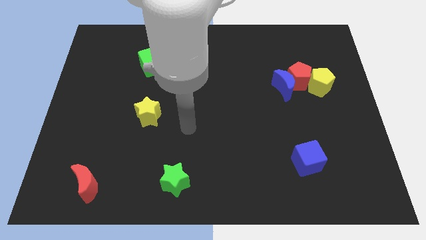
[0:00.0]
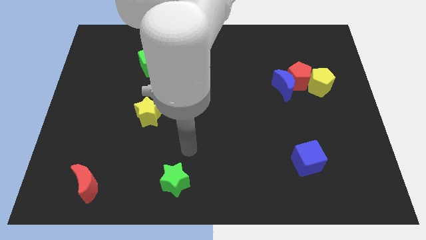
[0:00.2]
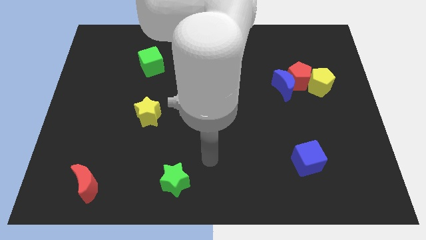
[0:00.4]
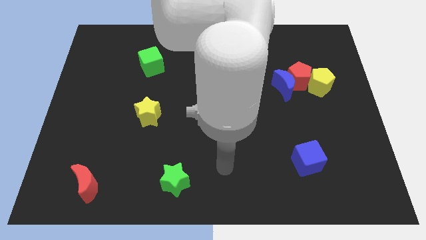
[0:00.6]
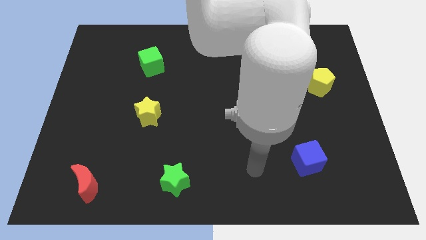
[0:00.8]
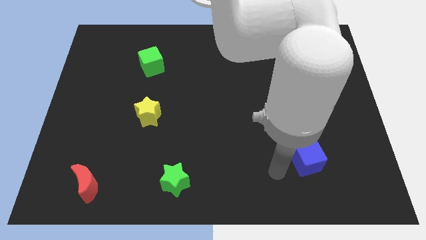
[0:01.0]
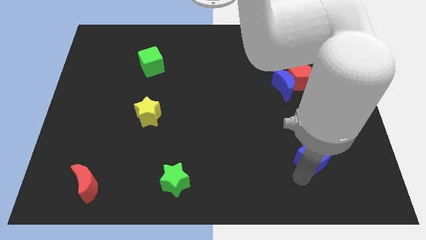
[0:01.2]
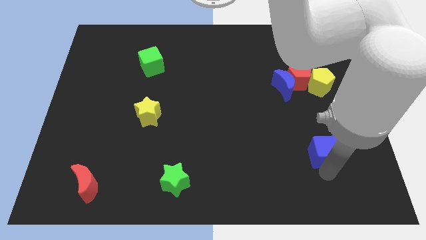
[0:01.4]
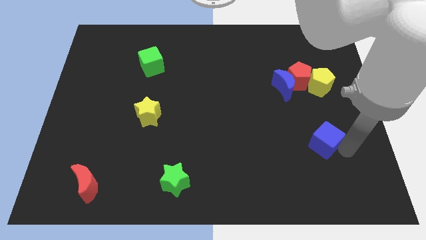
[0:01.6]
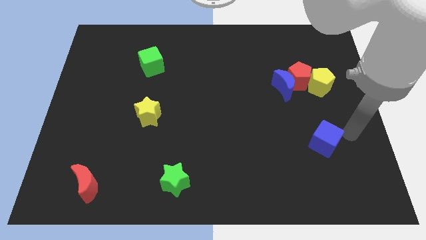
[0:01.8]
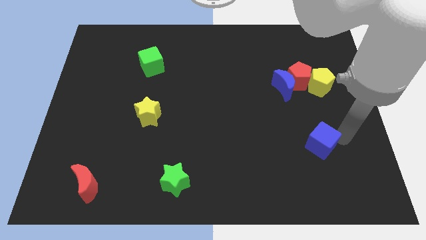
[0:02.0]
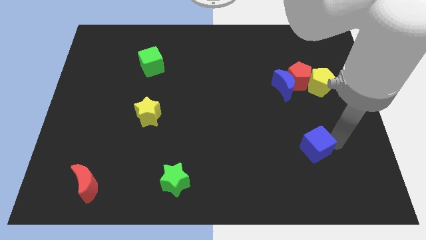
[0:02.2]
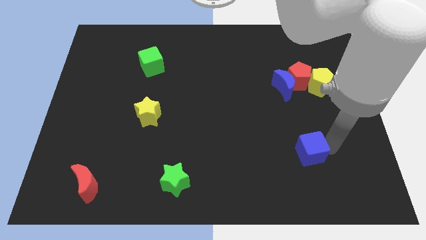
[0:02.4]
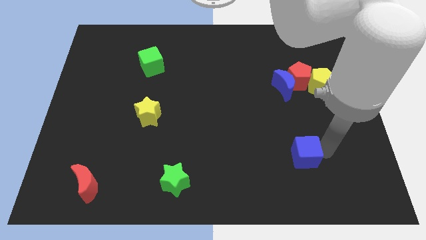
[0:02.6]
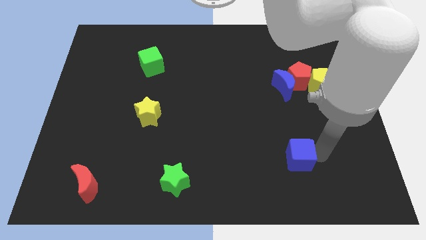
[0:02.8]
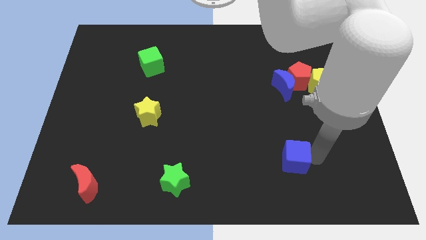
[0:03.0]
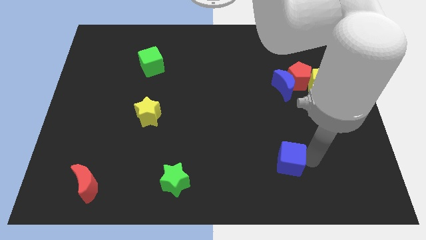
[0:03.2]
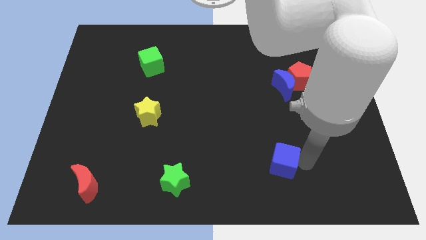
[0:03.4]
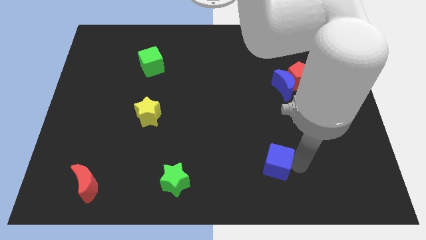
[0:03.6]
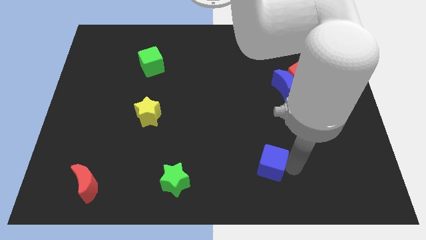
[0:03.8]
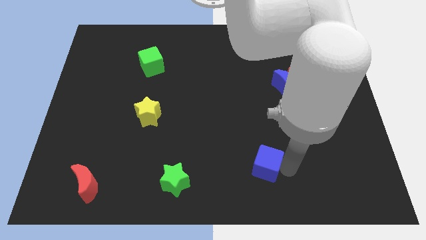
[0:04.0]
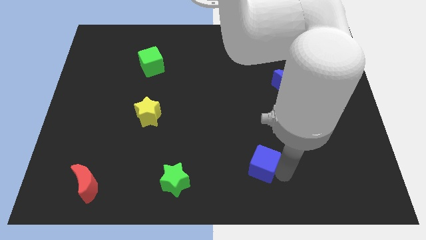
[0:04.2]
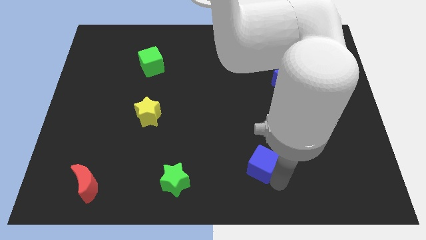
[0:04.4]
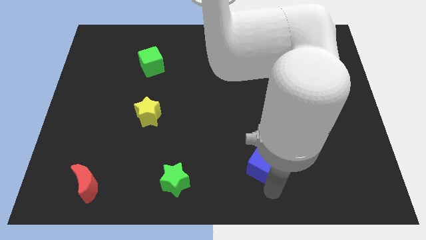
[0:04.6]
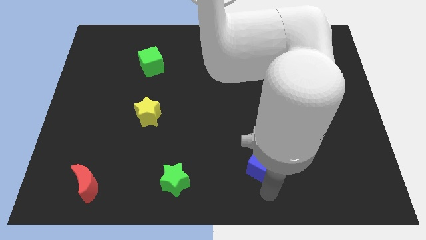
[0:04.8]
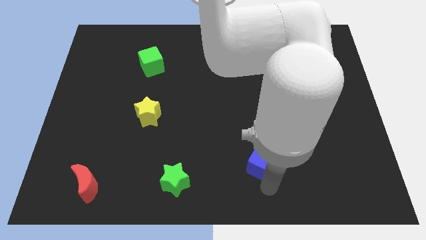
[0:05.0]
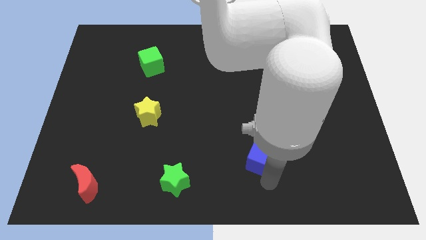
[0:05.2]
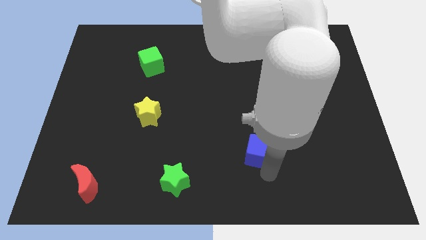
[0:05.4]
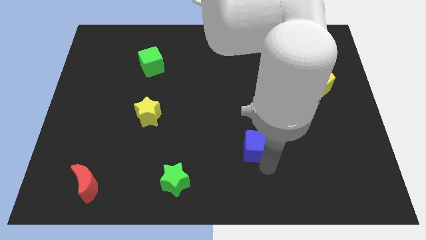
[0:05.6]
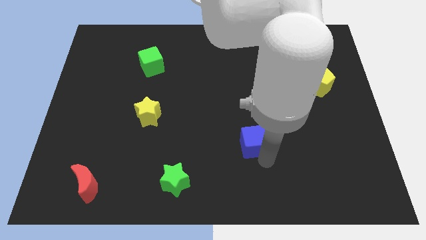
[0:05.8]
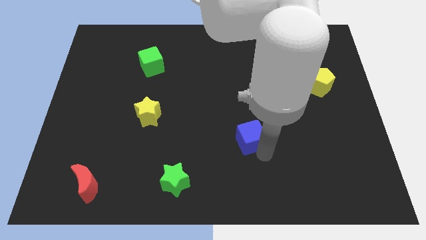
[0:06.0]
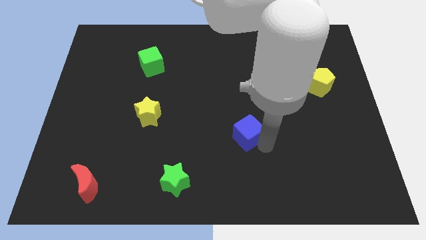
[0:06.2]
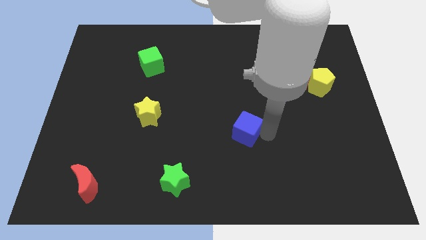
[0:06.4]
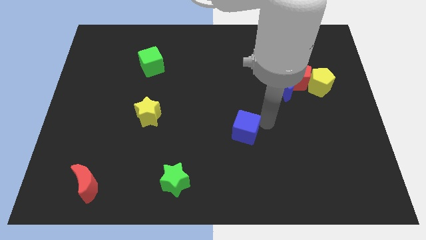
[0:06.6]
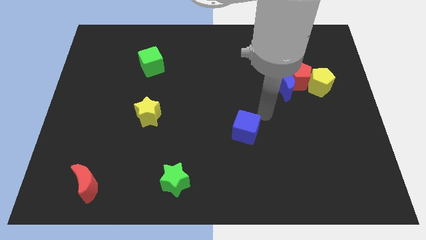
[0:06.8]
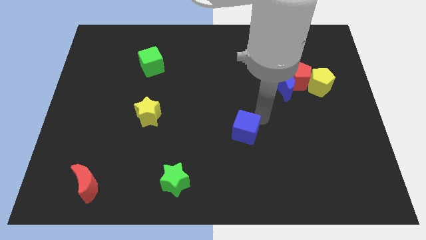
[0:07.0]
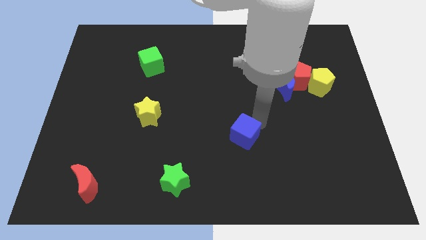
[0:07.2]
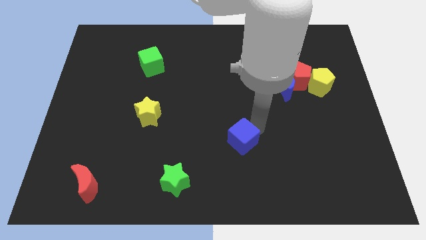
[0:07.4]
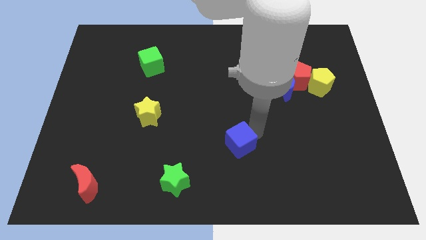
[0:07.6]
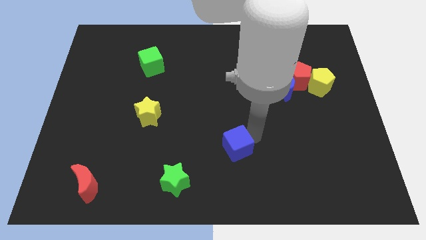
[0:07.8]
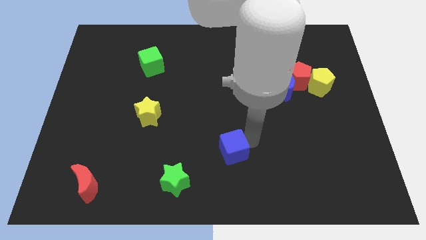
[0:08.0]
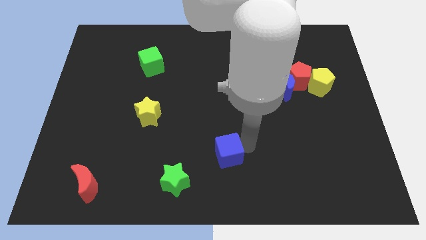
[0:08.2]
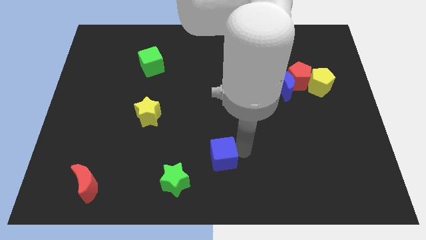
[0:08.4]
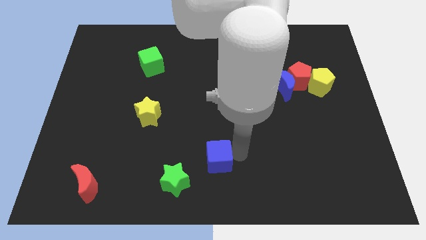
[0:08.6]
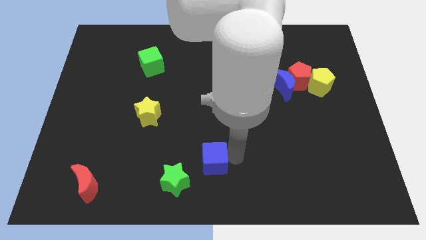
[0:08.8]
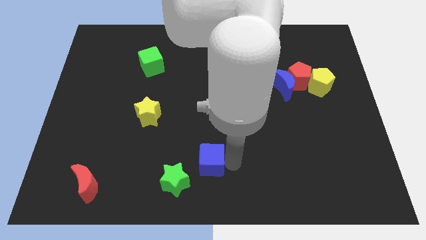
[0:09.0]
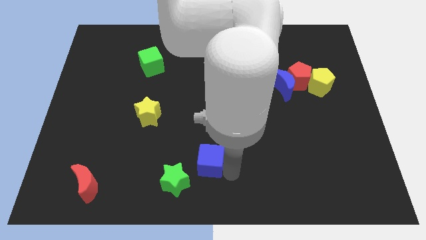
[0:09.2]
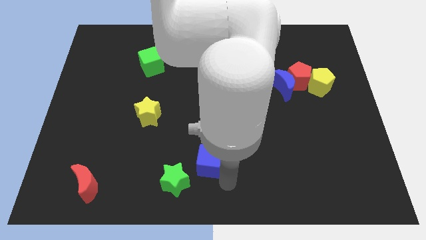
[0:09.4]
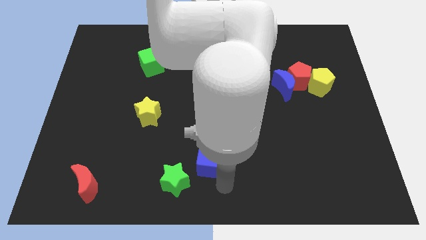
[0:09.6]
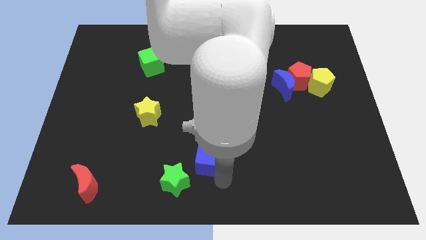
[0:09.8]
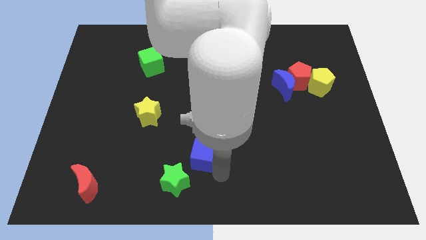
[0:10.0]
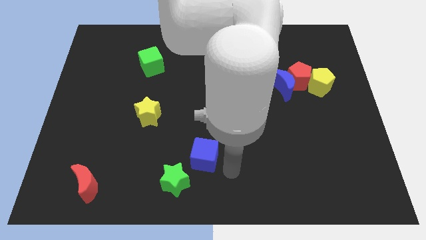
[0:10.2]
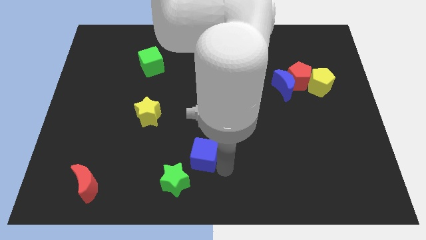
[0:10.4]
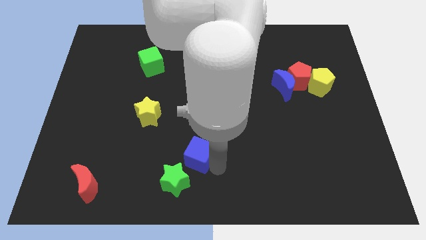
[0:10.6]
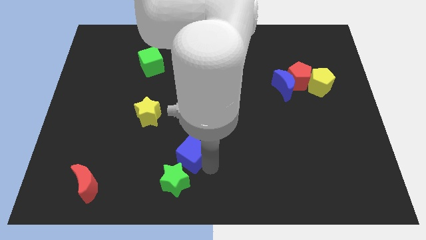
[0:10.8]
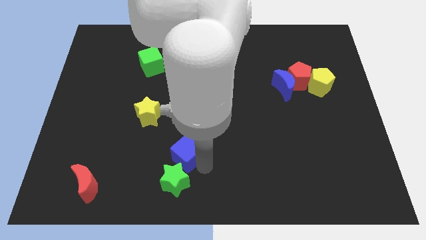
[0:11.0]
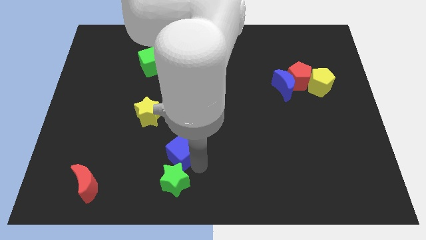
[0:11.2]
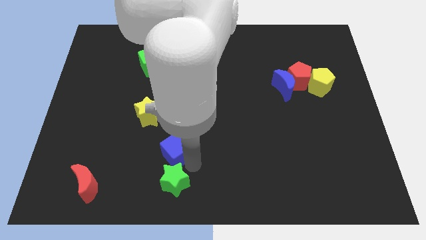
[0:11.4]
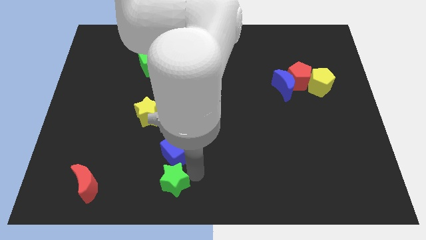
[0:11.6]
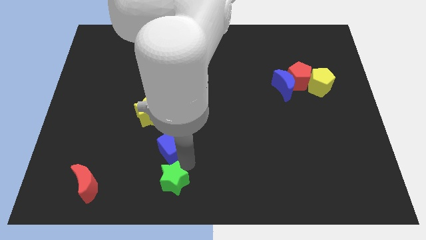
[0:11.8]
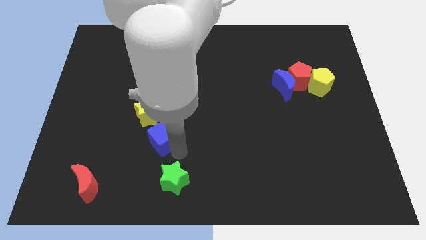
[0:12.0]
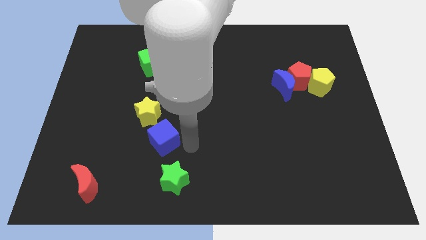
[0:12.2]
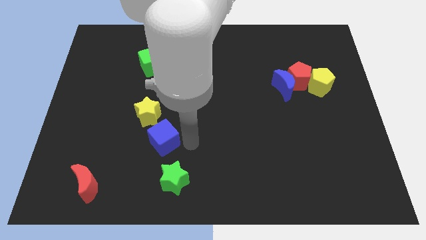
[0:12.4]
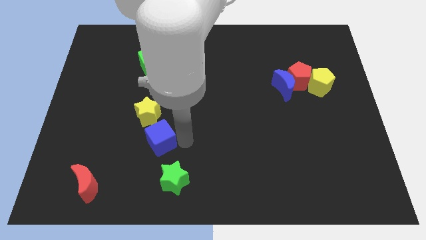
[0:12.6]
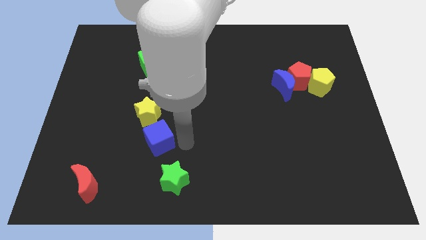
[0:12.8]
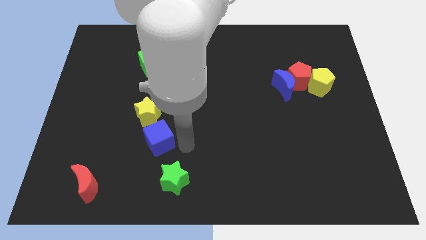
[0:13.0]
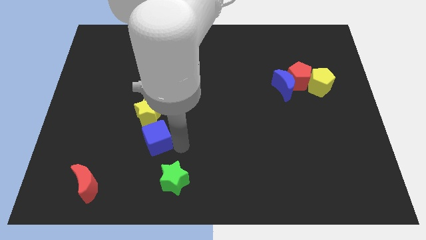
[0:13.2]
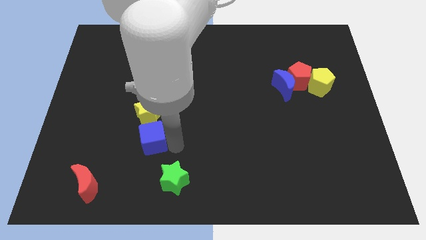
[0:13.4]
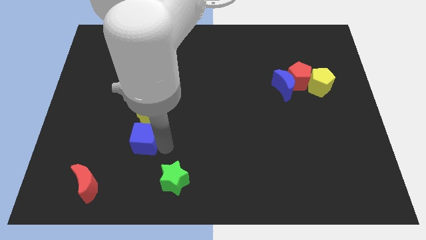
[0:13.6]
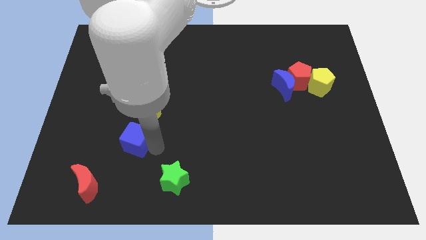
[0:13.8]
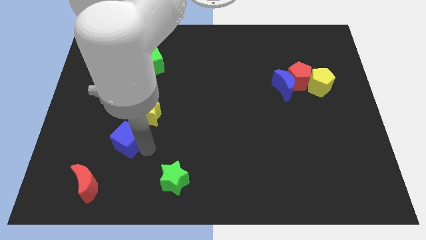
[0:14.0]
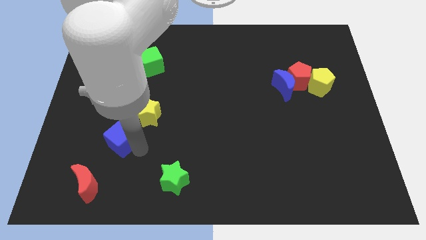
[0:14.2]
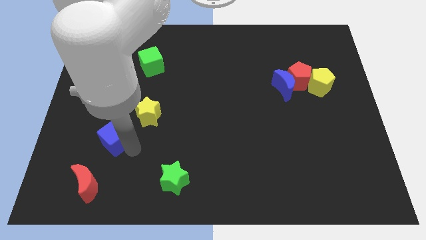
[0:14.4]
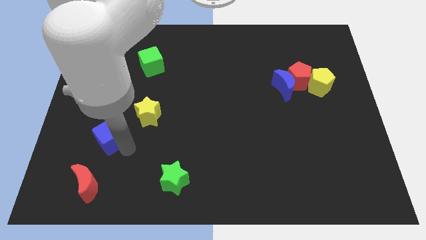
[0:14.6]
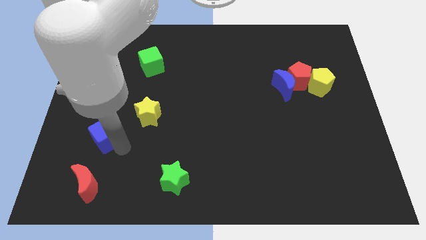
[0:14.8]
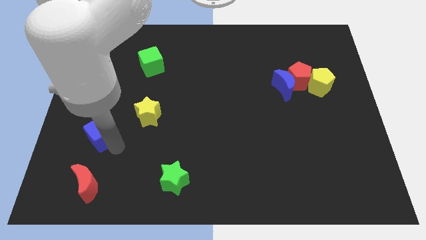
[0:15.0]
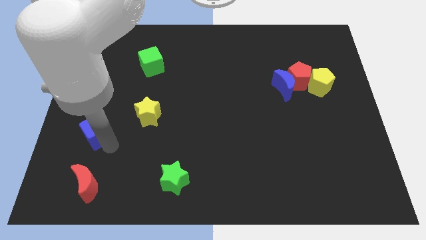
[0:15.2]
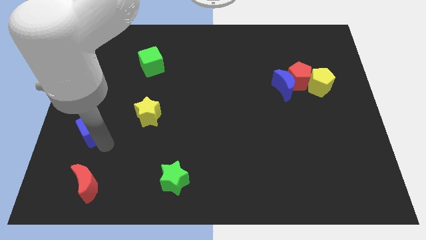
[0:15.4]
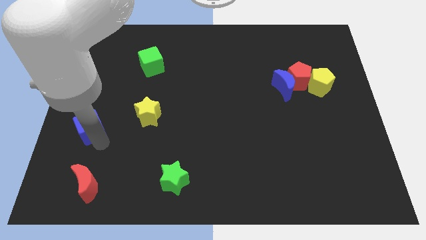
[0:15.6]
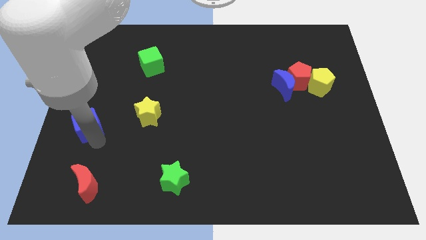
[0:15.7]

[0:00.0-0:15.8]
push the blue cube to the left side
